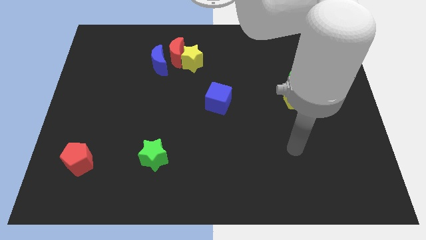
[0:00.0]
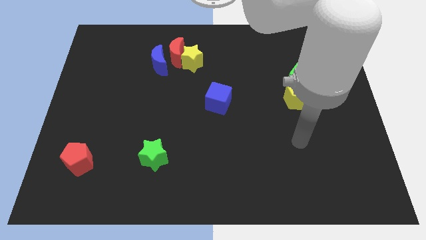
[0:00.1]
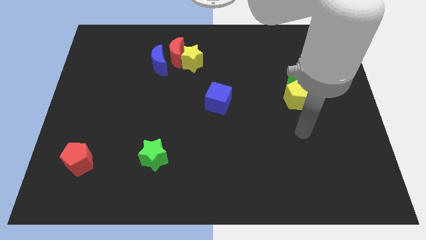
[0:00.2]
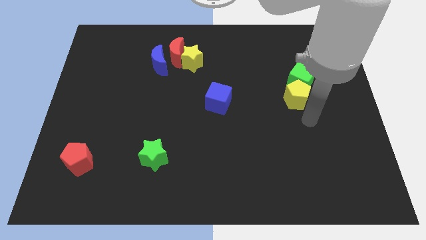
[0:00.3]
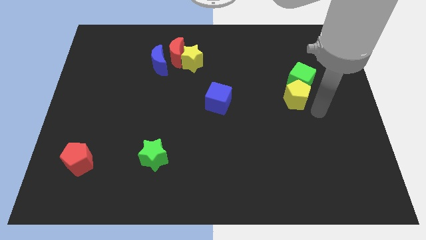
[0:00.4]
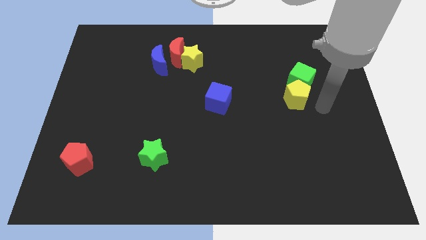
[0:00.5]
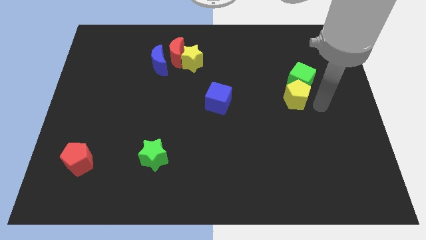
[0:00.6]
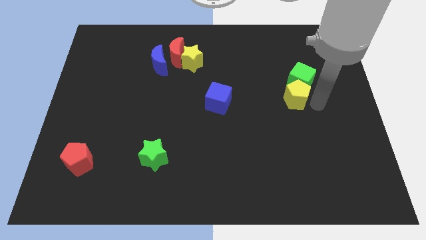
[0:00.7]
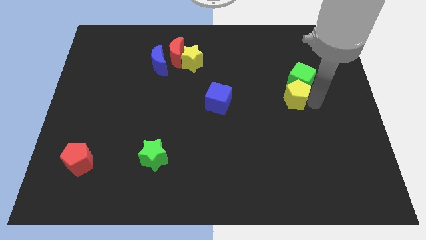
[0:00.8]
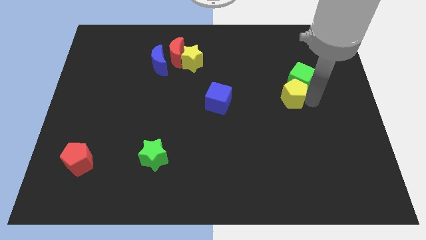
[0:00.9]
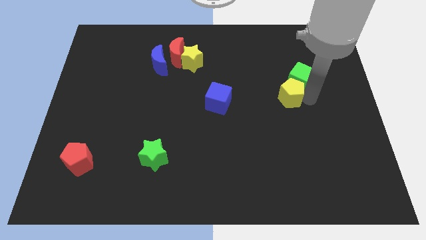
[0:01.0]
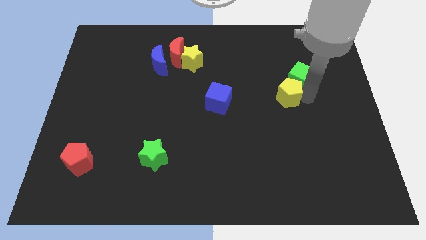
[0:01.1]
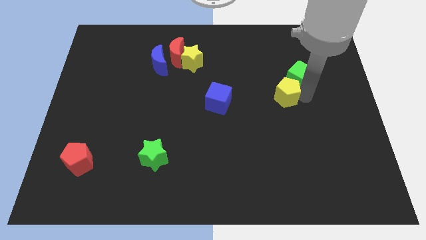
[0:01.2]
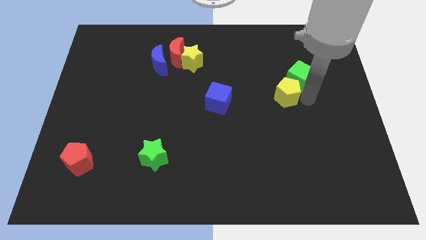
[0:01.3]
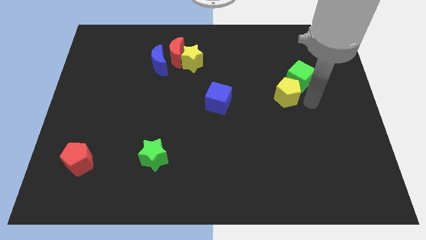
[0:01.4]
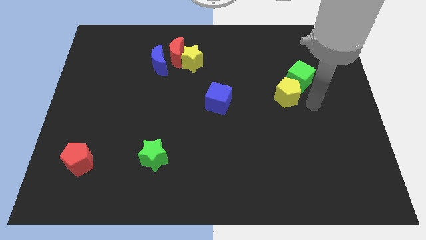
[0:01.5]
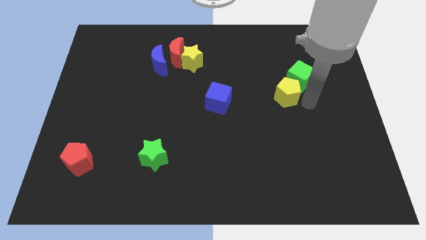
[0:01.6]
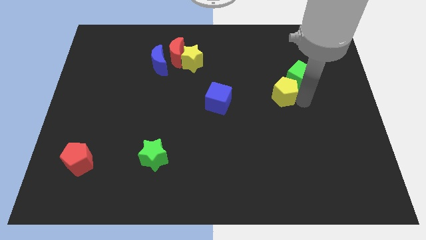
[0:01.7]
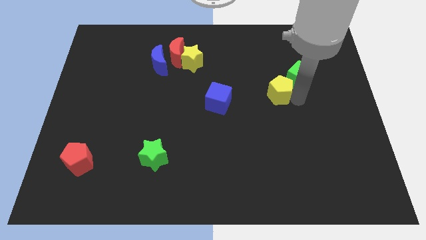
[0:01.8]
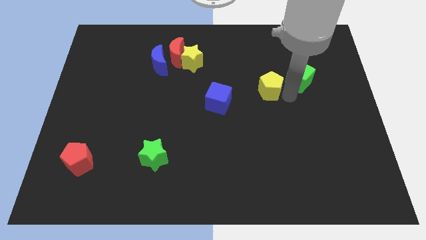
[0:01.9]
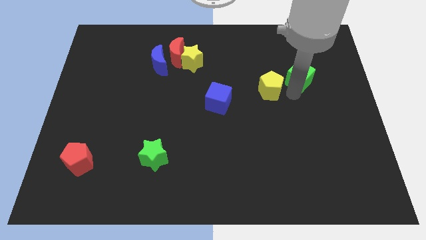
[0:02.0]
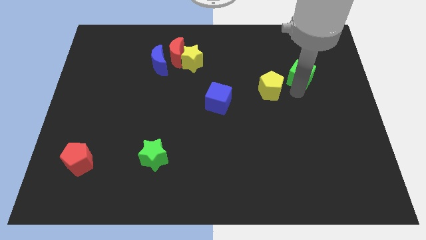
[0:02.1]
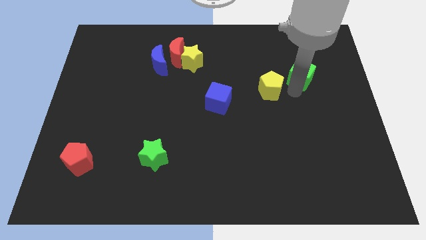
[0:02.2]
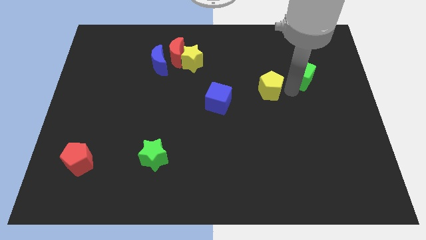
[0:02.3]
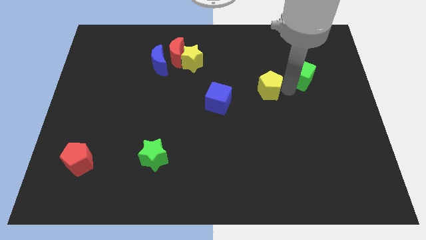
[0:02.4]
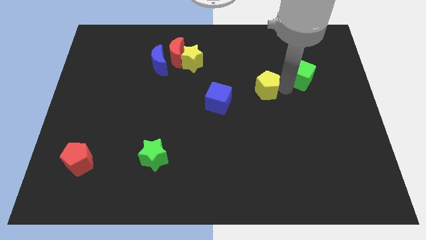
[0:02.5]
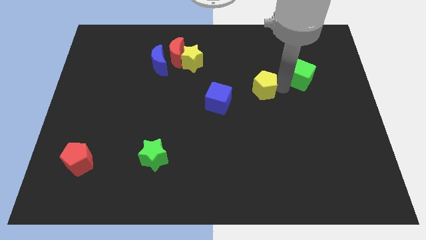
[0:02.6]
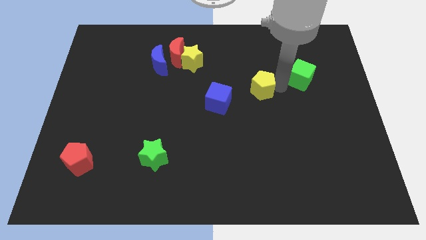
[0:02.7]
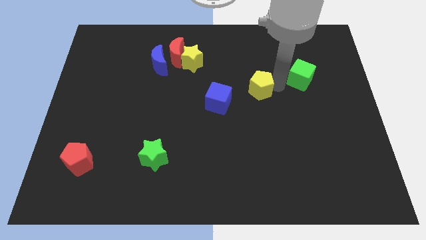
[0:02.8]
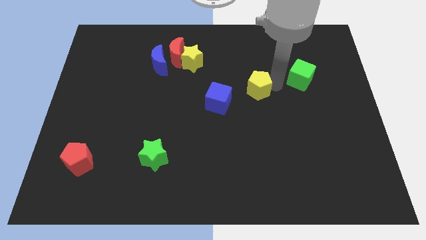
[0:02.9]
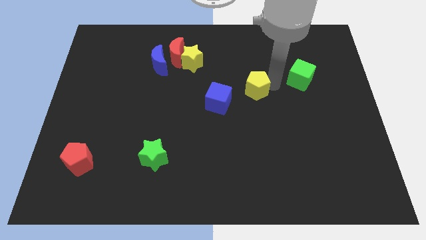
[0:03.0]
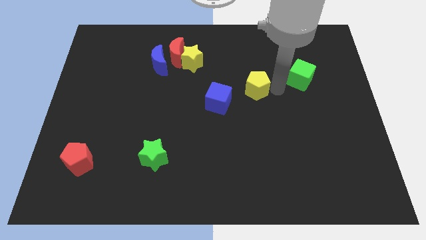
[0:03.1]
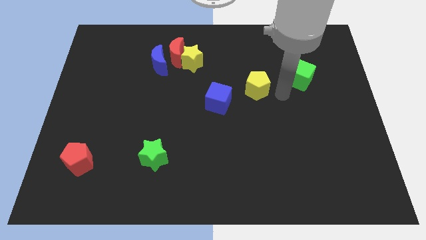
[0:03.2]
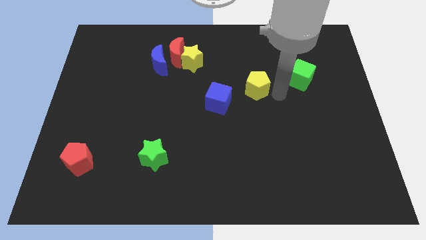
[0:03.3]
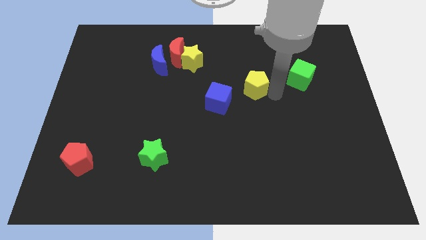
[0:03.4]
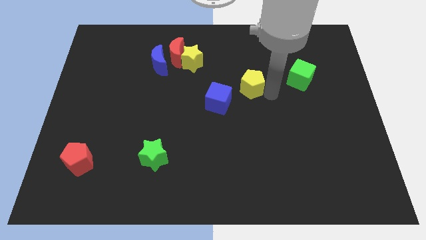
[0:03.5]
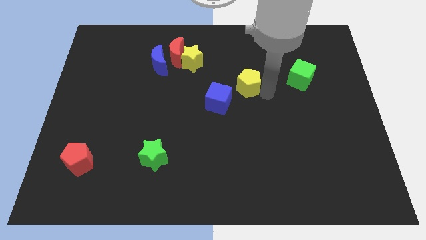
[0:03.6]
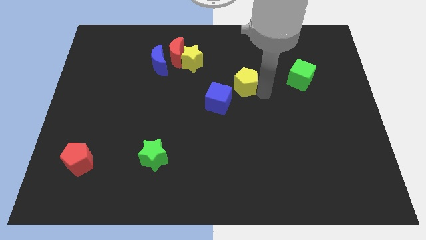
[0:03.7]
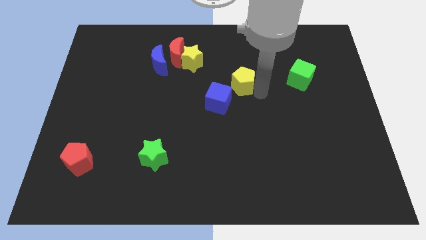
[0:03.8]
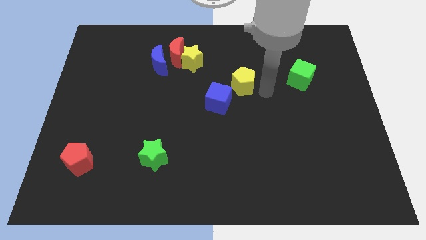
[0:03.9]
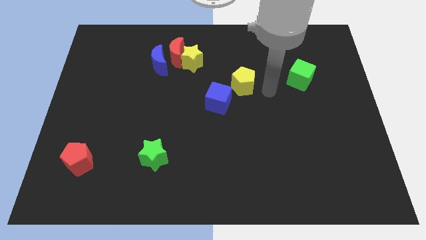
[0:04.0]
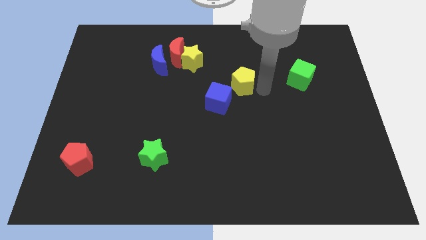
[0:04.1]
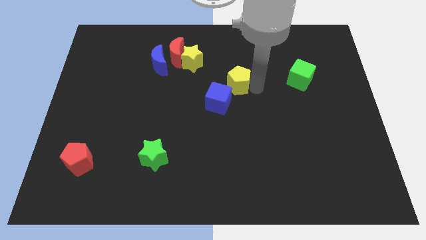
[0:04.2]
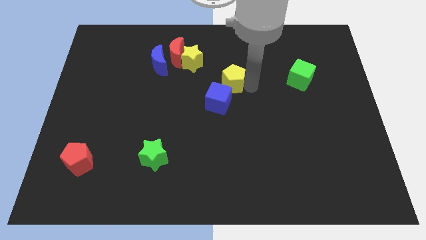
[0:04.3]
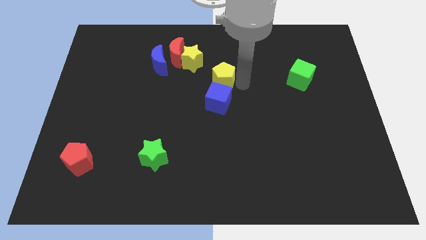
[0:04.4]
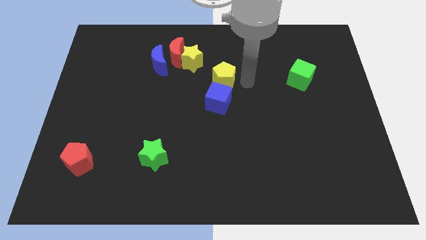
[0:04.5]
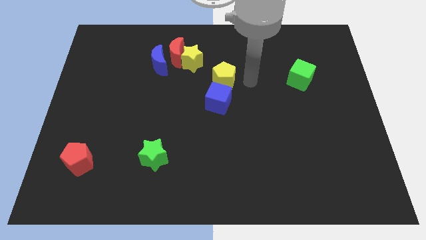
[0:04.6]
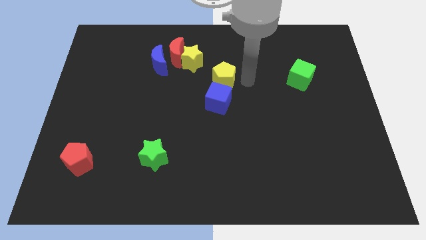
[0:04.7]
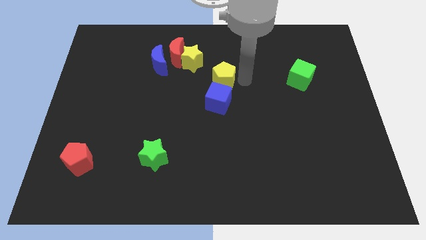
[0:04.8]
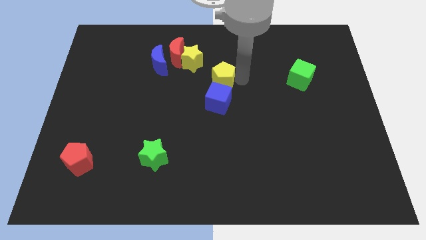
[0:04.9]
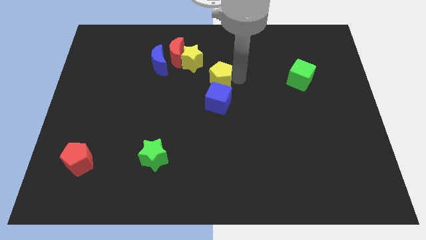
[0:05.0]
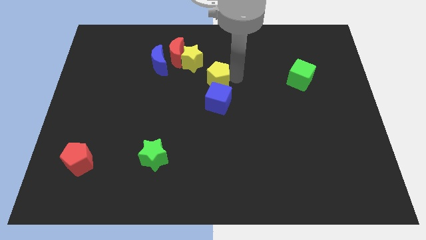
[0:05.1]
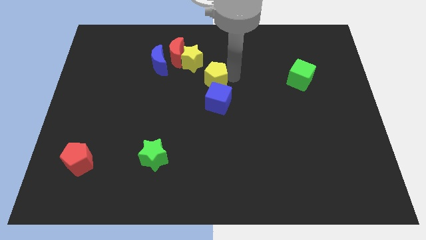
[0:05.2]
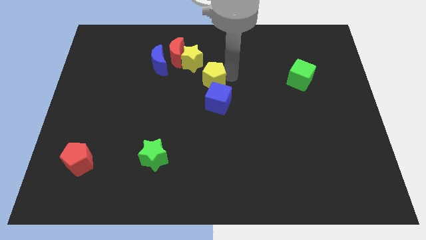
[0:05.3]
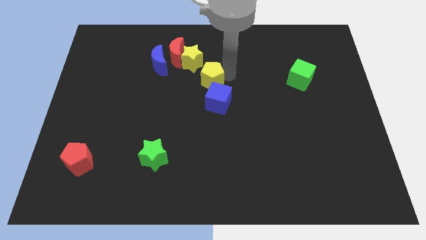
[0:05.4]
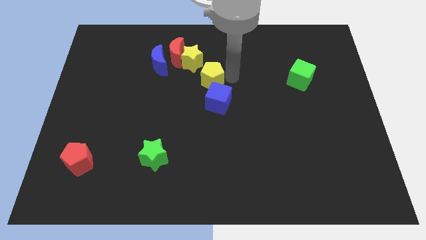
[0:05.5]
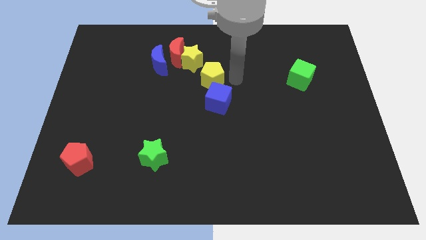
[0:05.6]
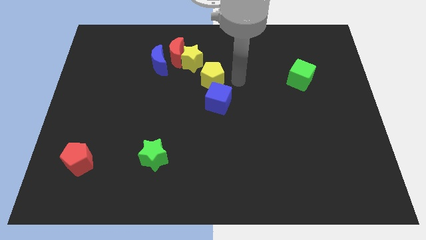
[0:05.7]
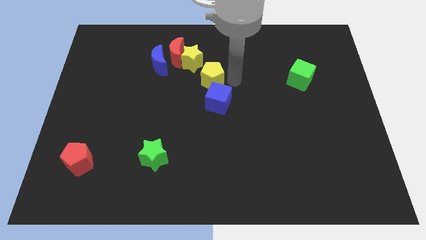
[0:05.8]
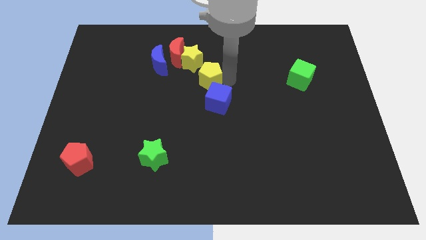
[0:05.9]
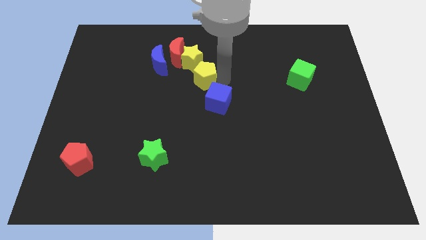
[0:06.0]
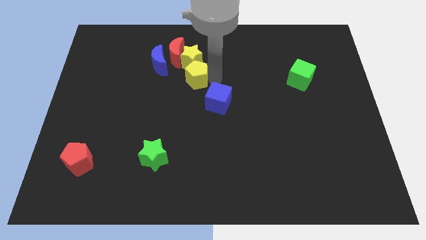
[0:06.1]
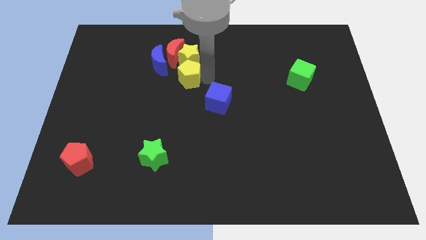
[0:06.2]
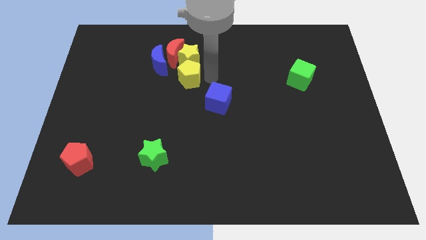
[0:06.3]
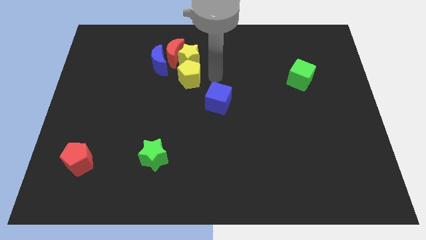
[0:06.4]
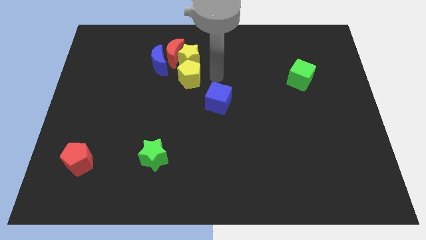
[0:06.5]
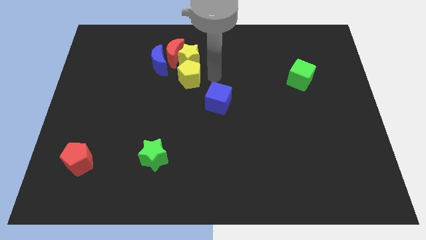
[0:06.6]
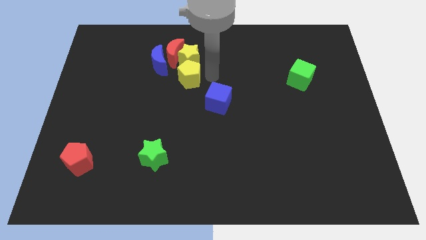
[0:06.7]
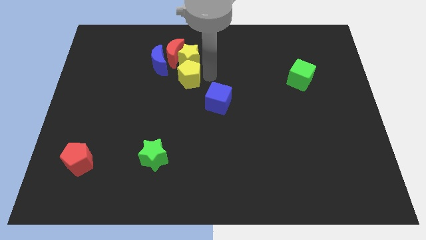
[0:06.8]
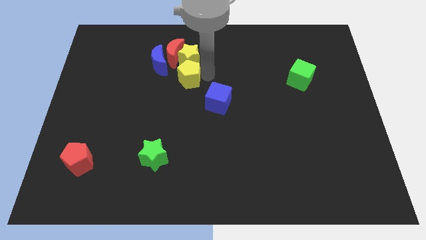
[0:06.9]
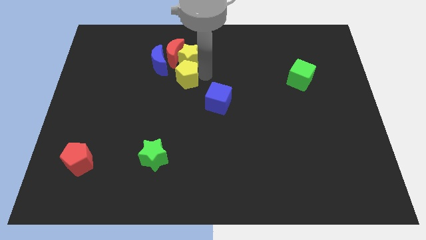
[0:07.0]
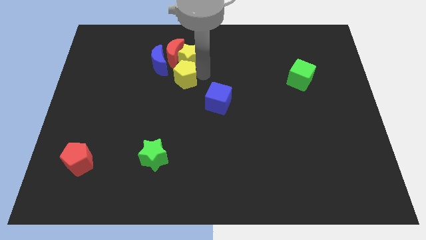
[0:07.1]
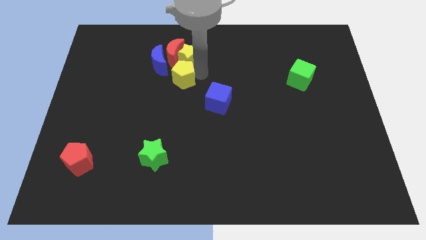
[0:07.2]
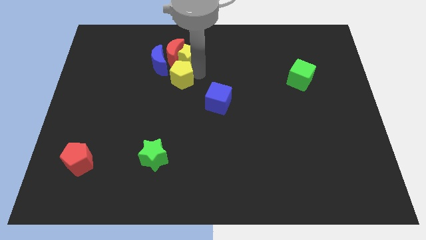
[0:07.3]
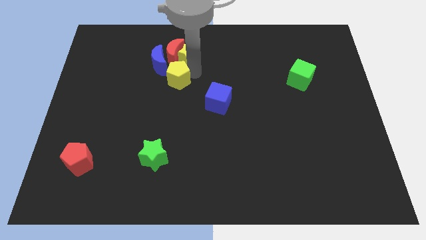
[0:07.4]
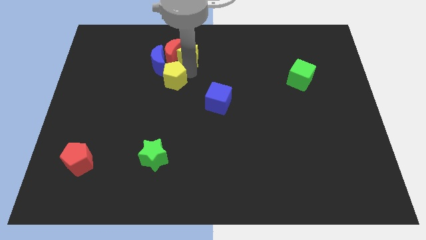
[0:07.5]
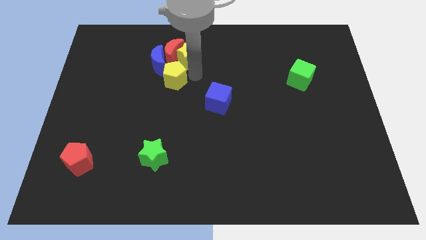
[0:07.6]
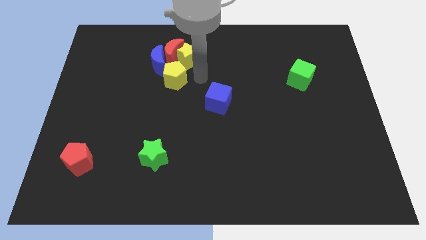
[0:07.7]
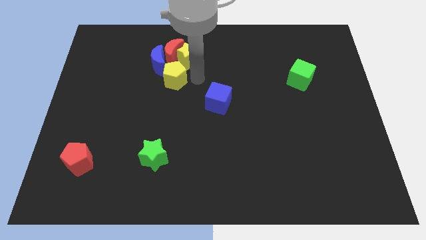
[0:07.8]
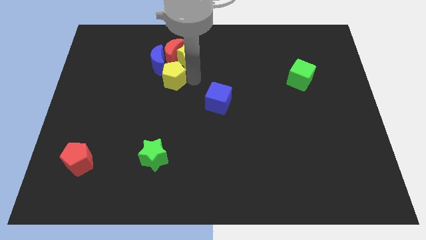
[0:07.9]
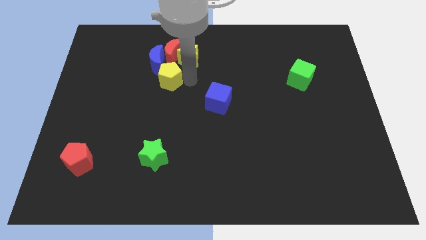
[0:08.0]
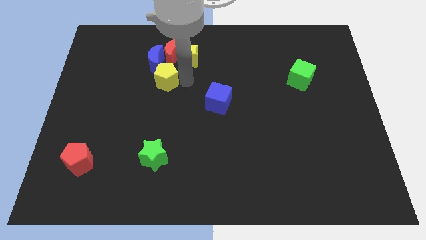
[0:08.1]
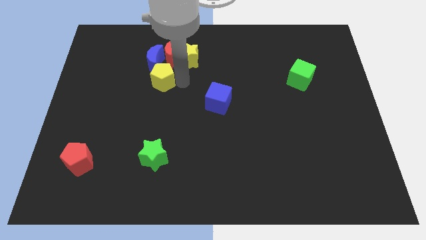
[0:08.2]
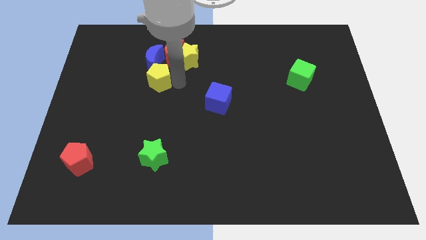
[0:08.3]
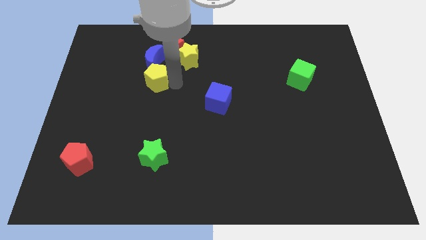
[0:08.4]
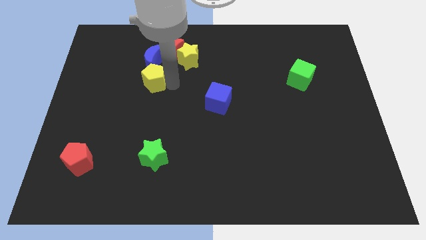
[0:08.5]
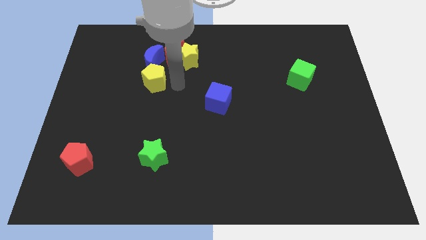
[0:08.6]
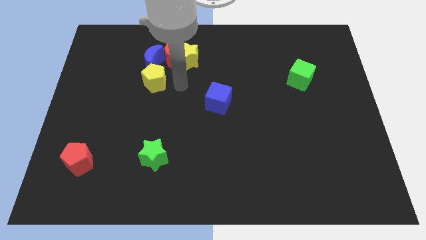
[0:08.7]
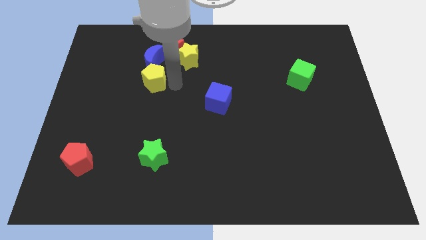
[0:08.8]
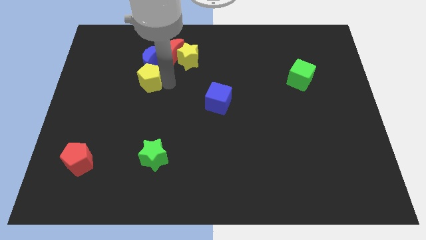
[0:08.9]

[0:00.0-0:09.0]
push the yellow pentagon diagonally down and to the left of the blue moon
